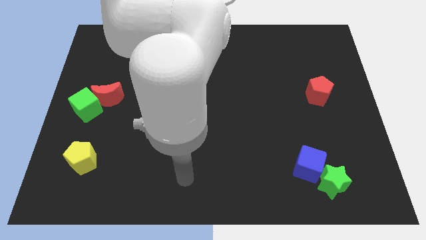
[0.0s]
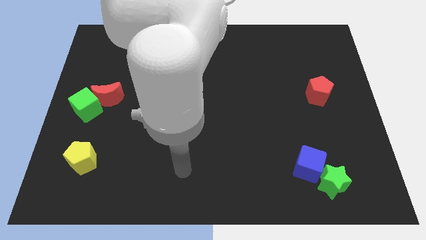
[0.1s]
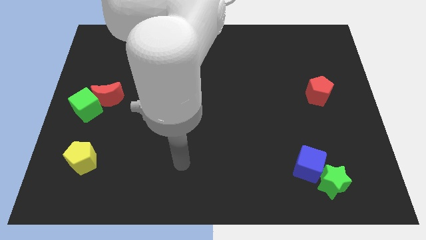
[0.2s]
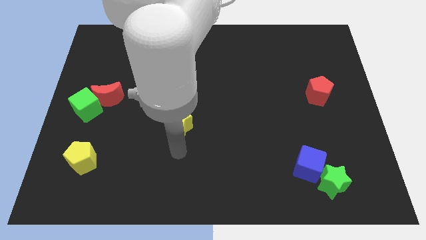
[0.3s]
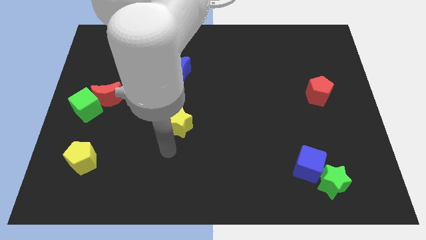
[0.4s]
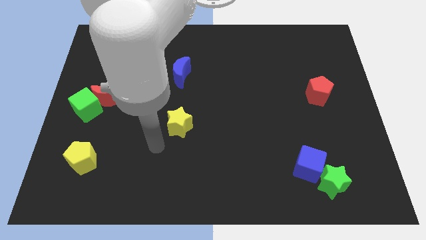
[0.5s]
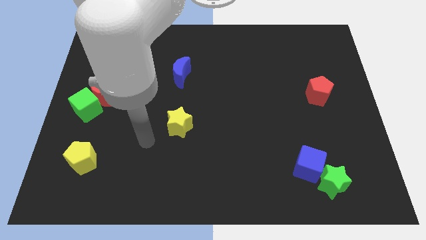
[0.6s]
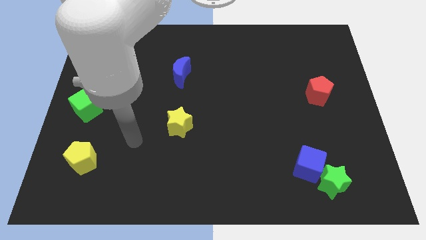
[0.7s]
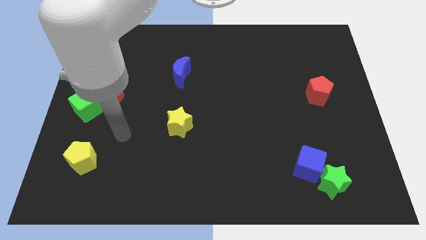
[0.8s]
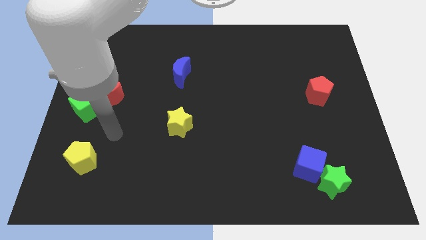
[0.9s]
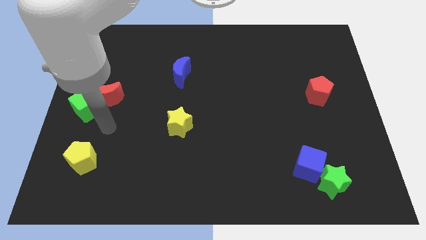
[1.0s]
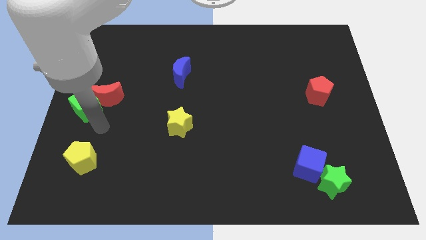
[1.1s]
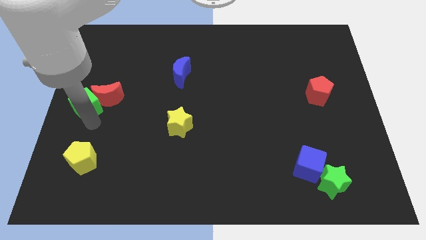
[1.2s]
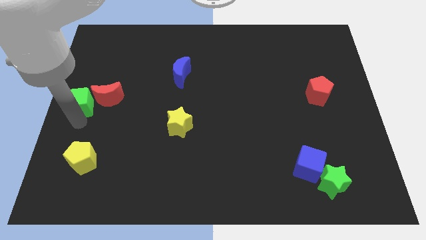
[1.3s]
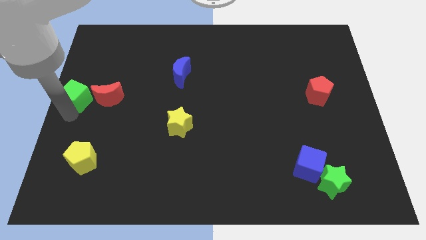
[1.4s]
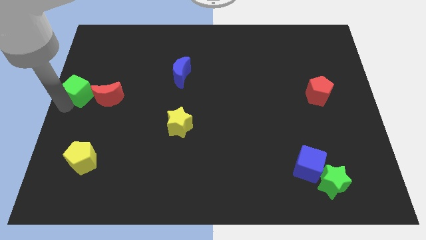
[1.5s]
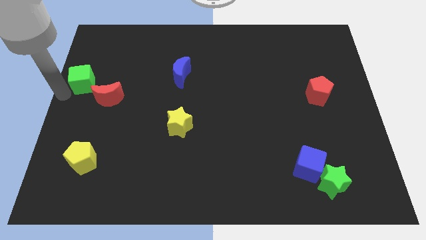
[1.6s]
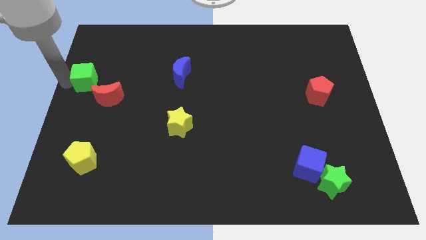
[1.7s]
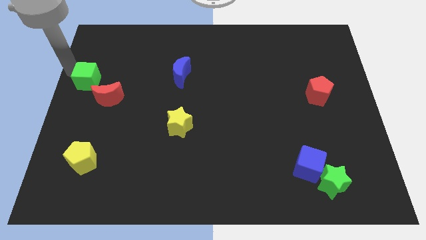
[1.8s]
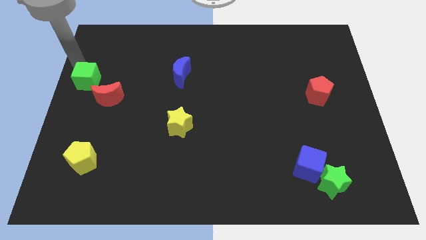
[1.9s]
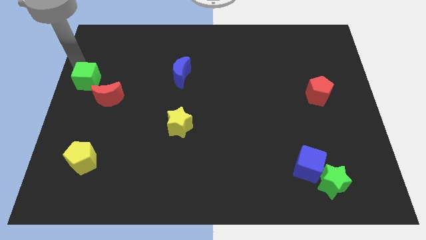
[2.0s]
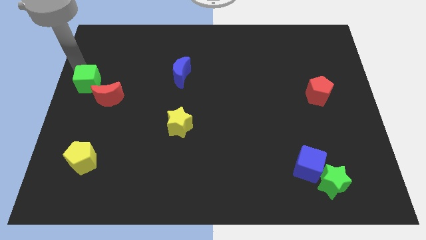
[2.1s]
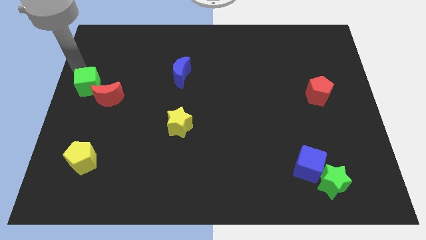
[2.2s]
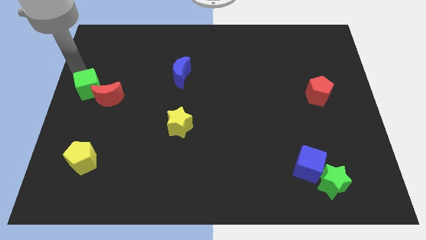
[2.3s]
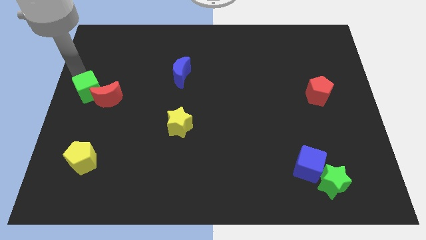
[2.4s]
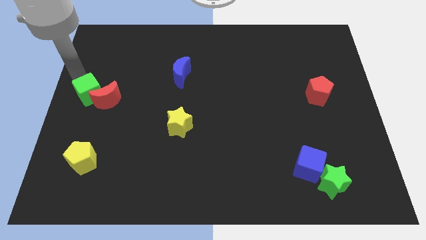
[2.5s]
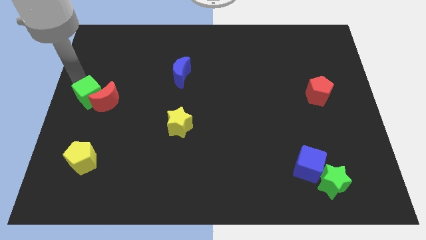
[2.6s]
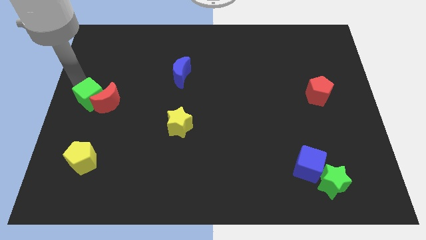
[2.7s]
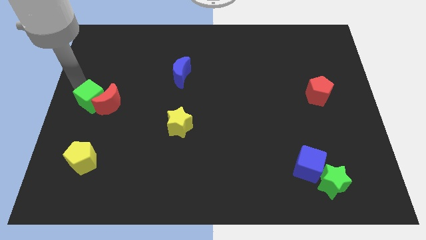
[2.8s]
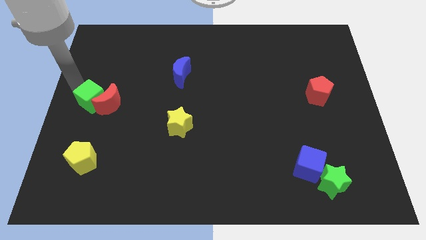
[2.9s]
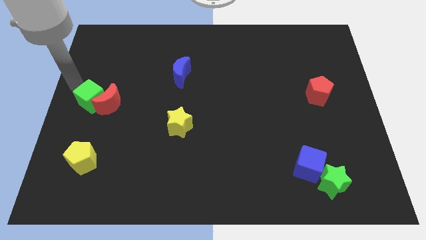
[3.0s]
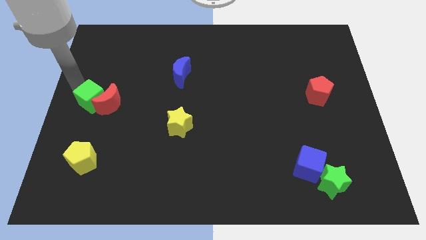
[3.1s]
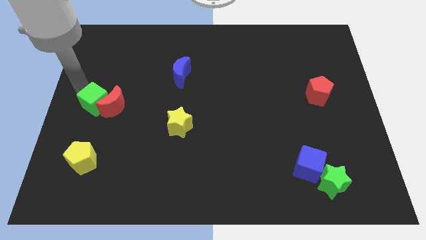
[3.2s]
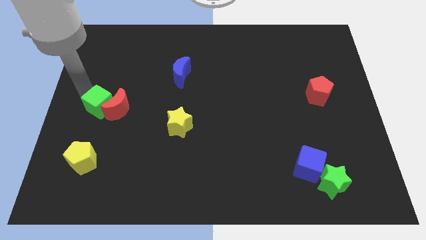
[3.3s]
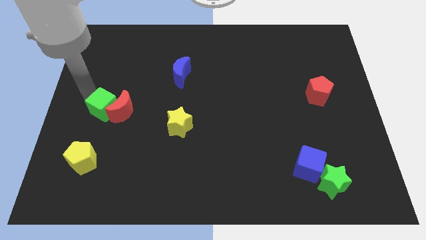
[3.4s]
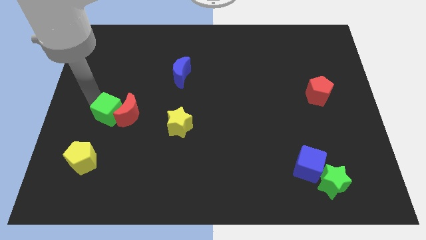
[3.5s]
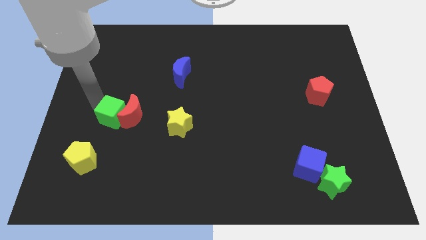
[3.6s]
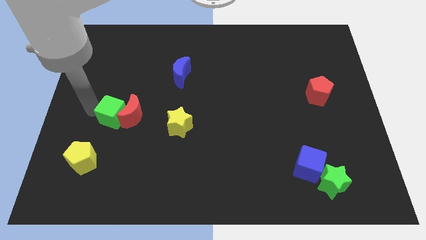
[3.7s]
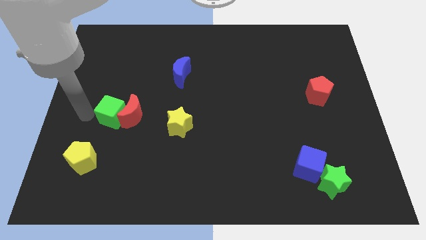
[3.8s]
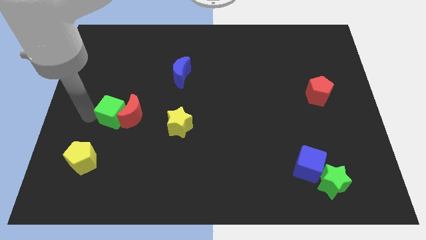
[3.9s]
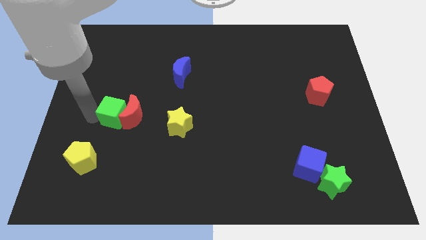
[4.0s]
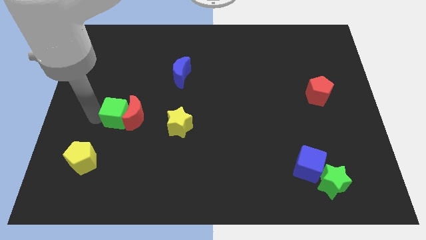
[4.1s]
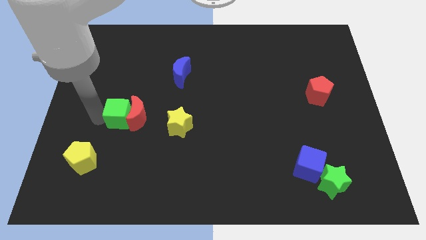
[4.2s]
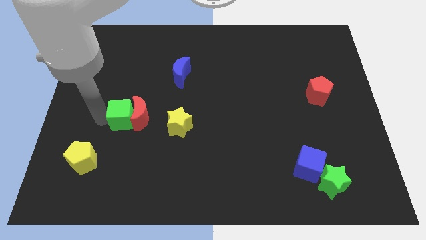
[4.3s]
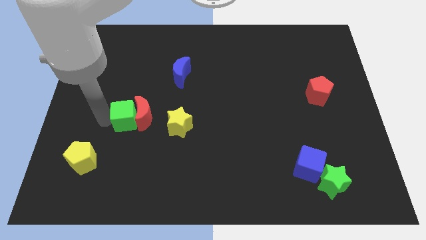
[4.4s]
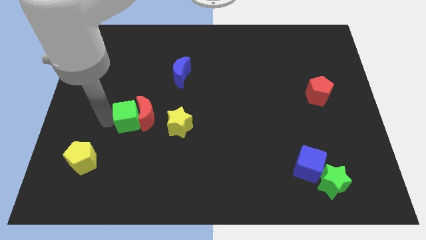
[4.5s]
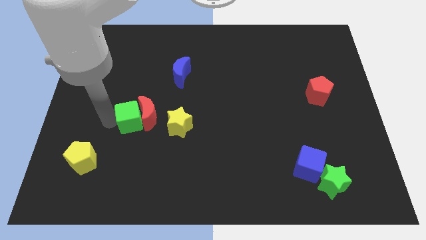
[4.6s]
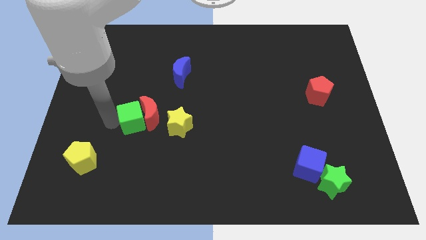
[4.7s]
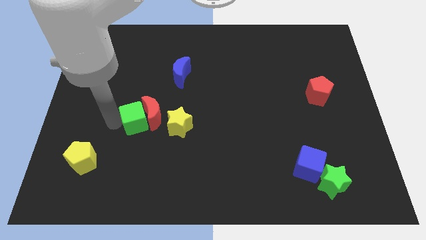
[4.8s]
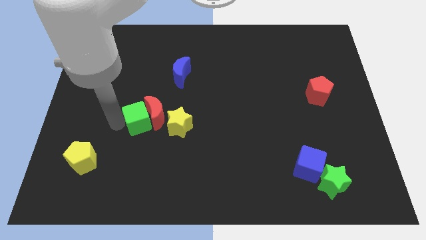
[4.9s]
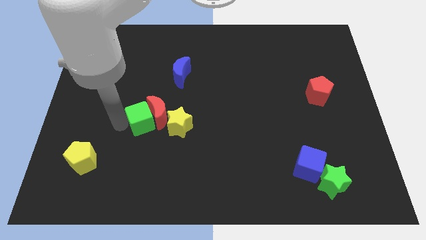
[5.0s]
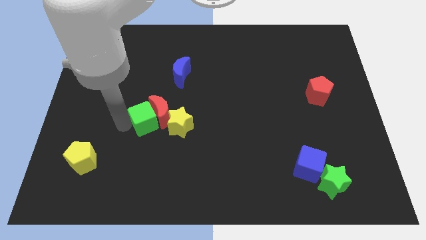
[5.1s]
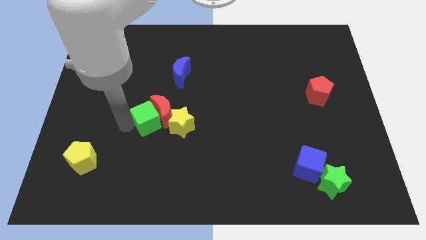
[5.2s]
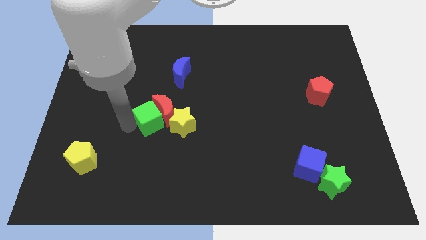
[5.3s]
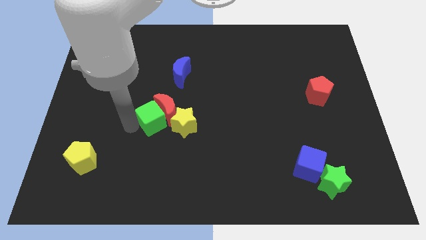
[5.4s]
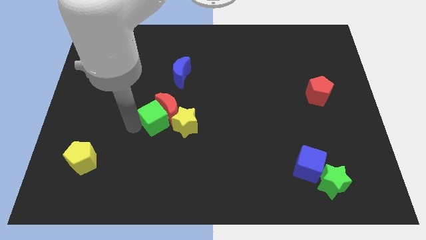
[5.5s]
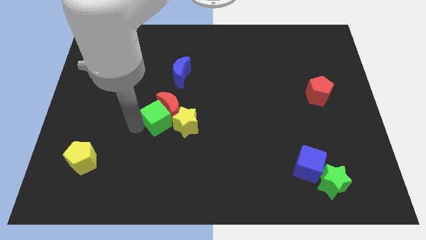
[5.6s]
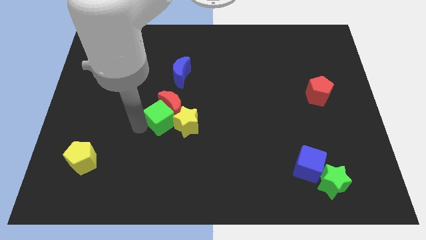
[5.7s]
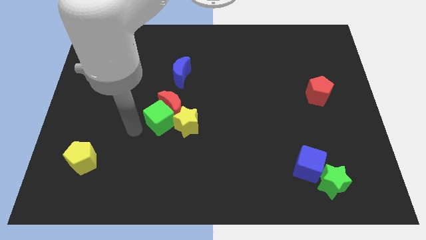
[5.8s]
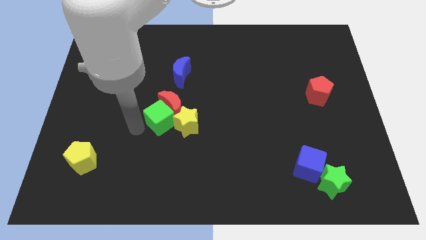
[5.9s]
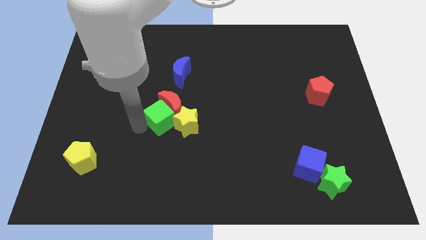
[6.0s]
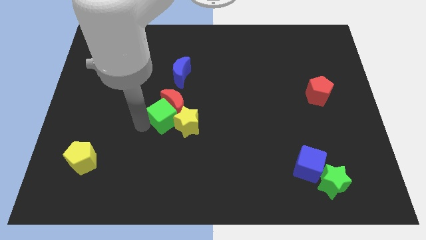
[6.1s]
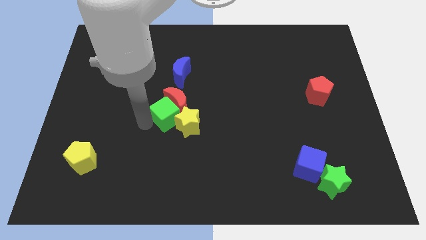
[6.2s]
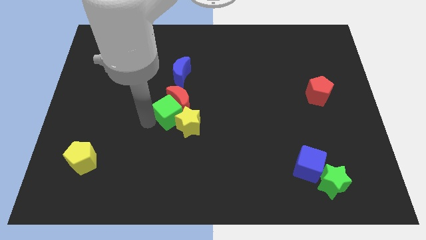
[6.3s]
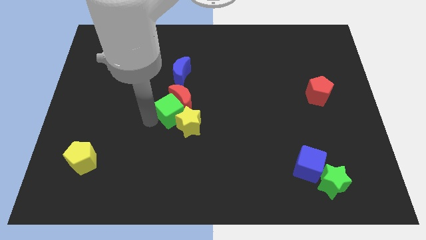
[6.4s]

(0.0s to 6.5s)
move the green cube to the right

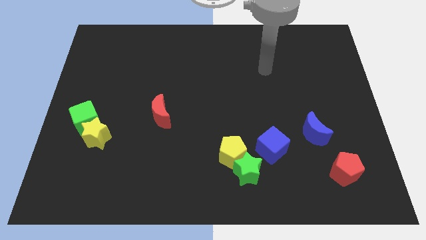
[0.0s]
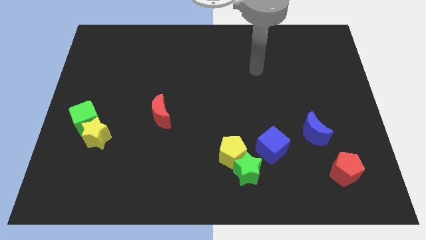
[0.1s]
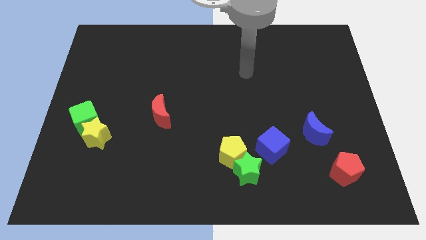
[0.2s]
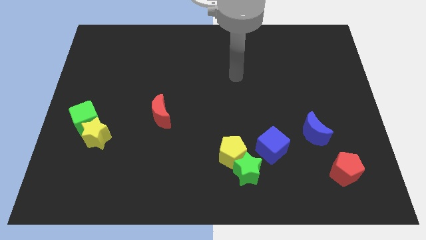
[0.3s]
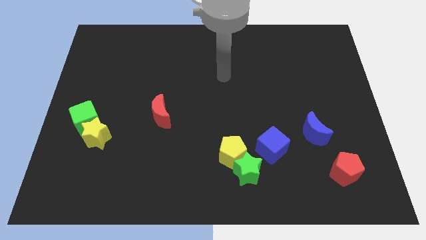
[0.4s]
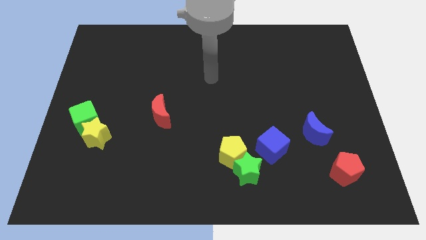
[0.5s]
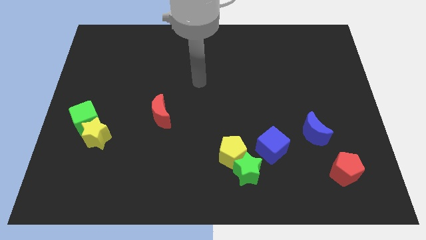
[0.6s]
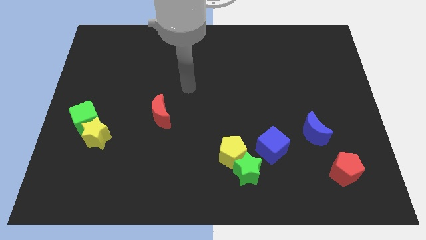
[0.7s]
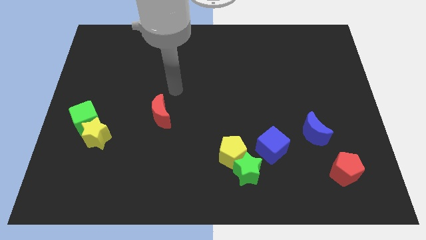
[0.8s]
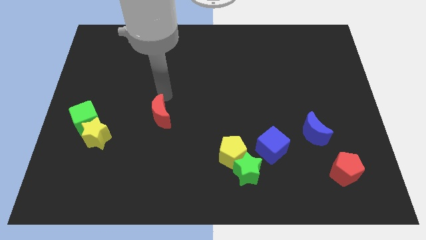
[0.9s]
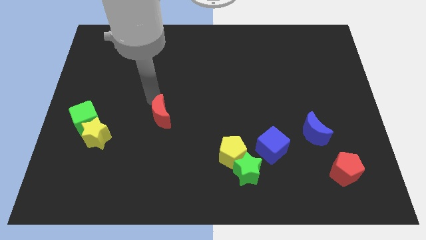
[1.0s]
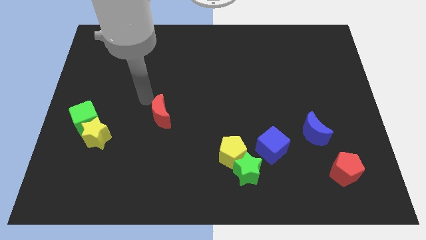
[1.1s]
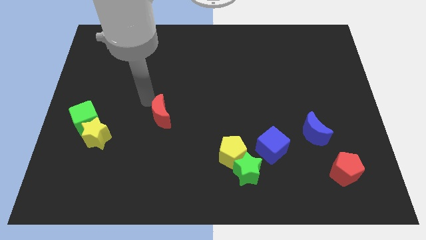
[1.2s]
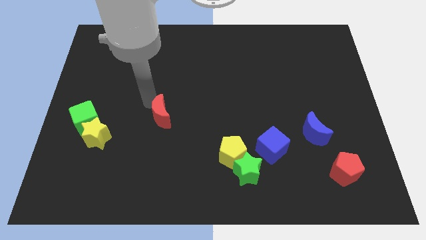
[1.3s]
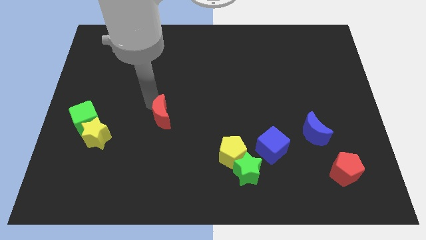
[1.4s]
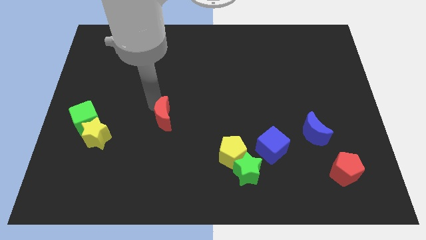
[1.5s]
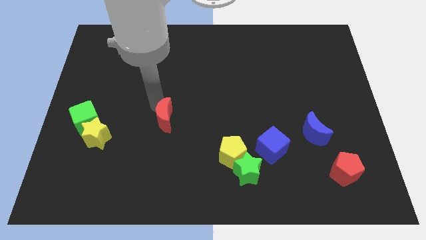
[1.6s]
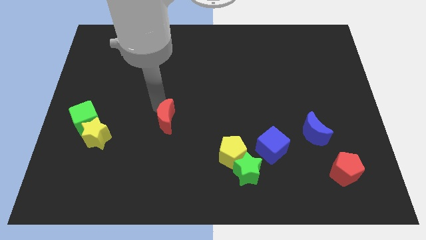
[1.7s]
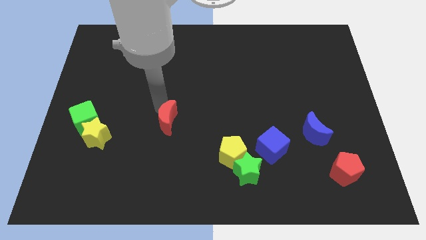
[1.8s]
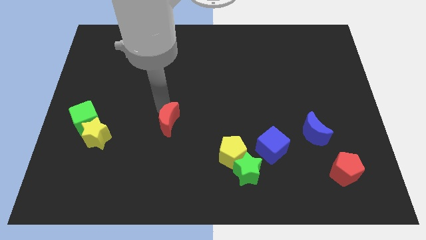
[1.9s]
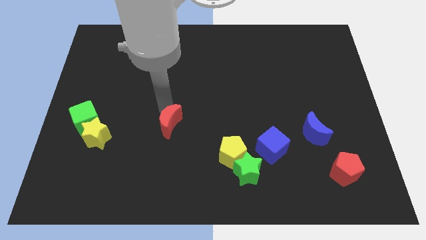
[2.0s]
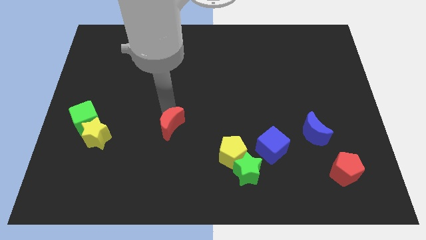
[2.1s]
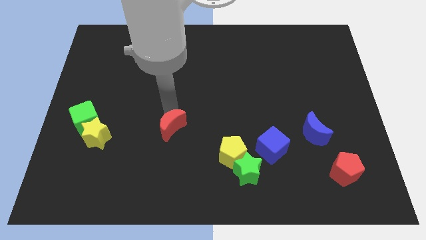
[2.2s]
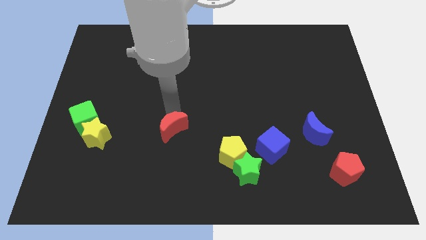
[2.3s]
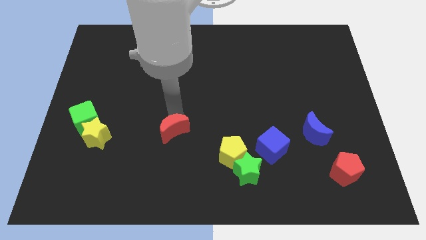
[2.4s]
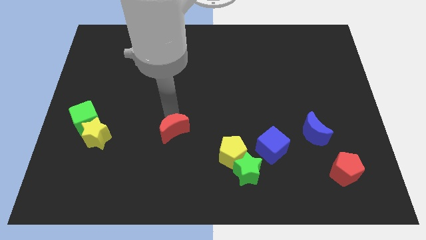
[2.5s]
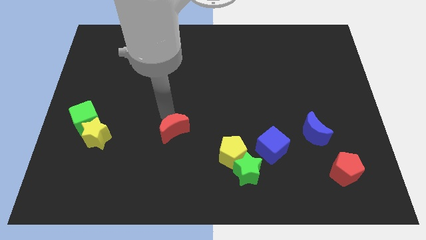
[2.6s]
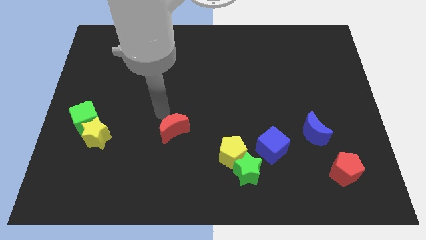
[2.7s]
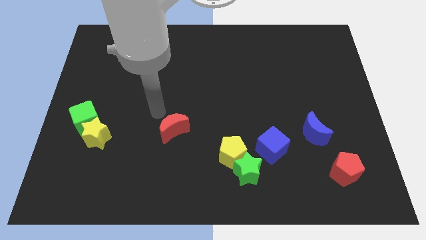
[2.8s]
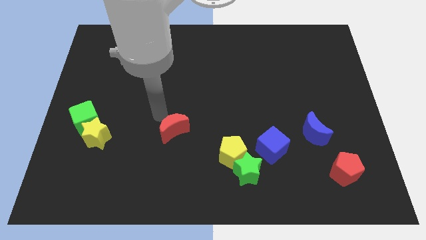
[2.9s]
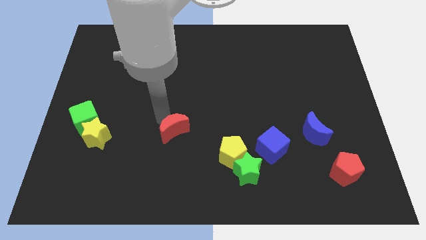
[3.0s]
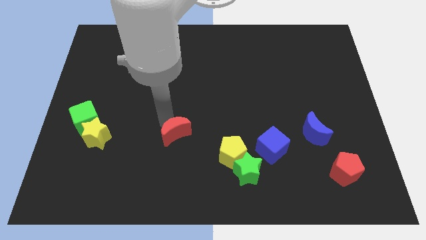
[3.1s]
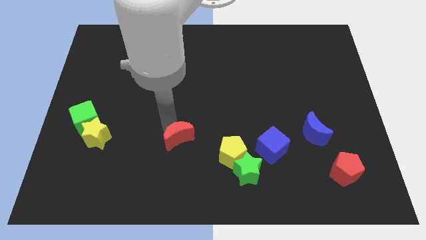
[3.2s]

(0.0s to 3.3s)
push the red moon downwards and then right somewhat
